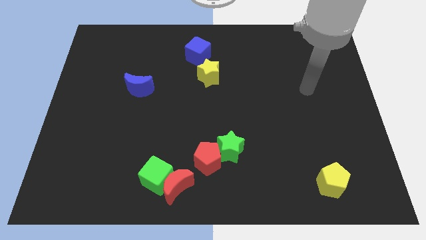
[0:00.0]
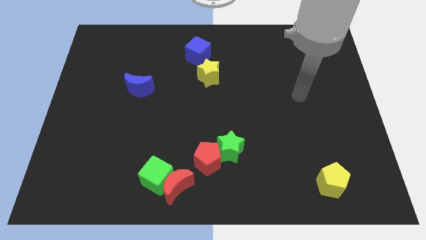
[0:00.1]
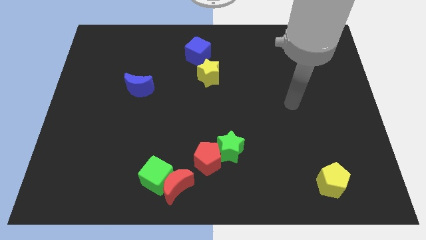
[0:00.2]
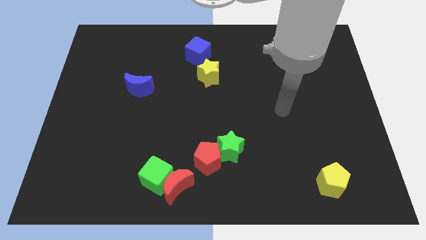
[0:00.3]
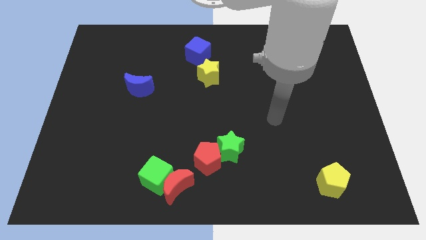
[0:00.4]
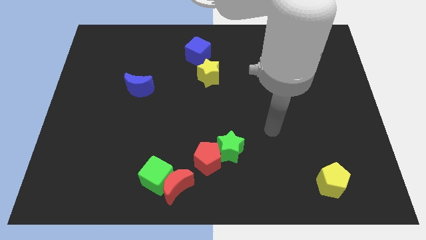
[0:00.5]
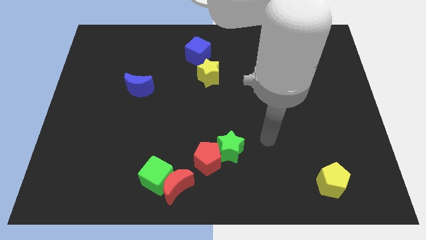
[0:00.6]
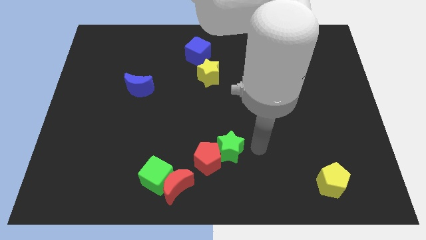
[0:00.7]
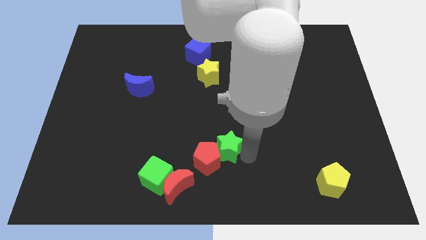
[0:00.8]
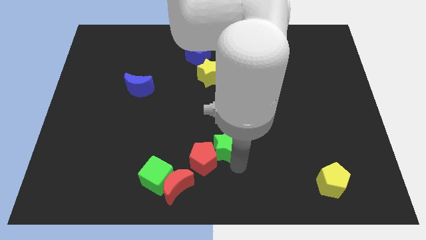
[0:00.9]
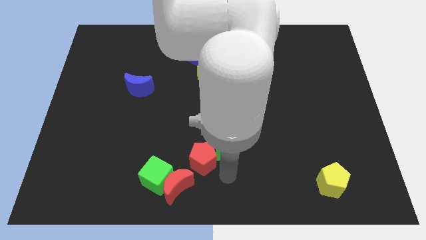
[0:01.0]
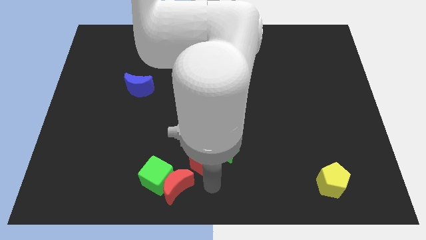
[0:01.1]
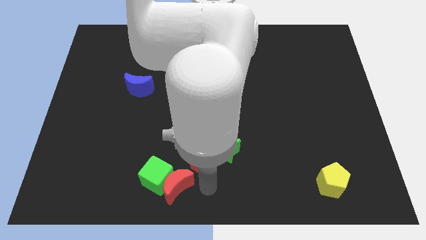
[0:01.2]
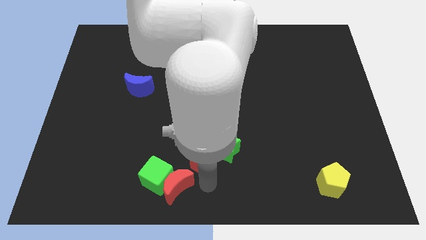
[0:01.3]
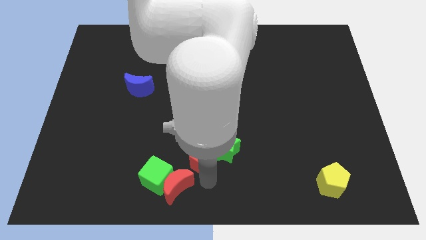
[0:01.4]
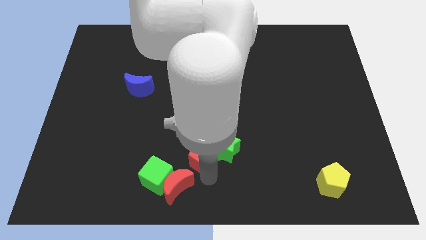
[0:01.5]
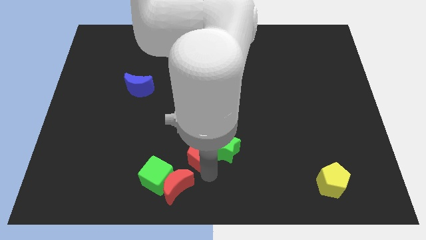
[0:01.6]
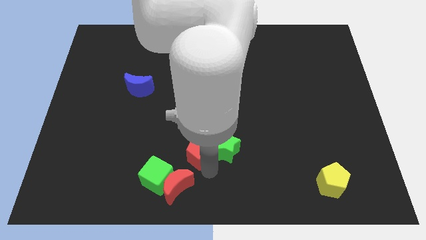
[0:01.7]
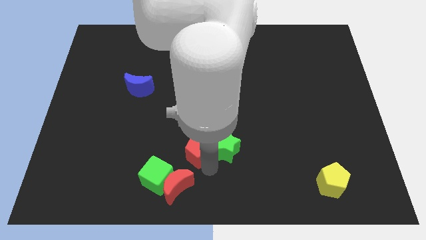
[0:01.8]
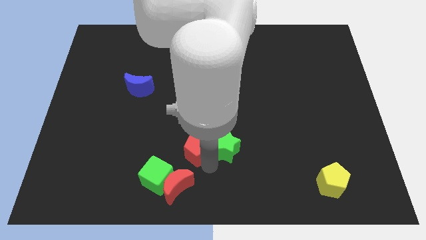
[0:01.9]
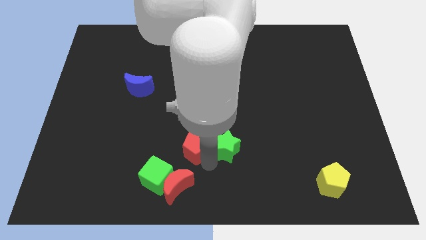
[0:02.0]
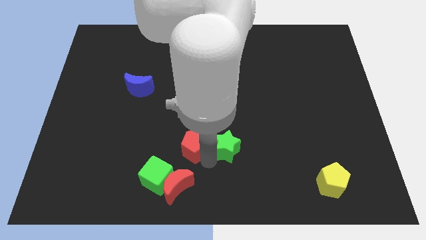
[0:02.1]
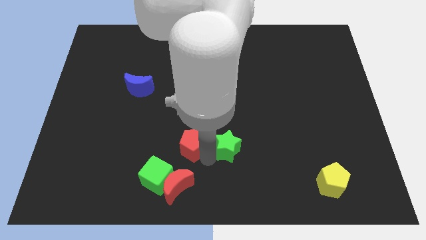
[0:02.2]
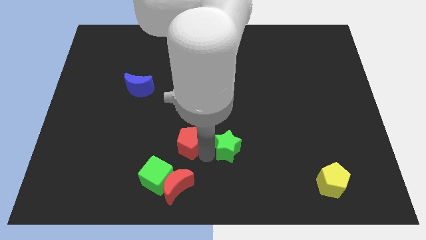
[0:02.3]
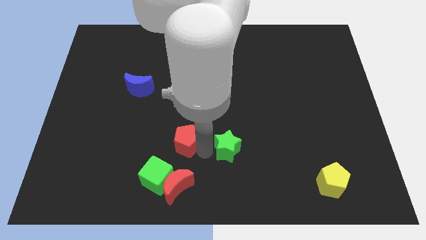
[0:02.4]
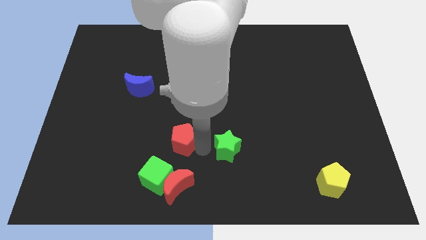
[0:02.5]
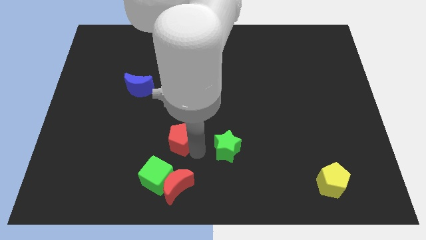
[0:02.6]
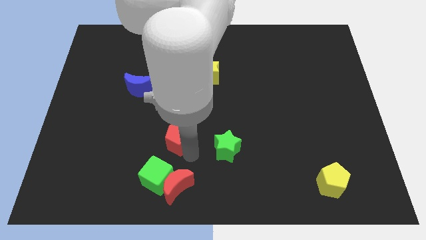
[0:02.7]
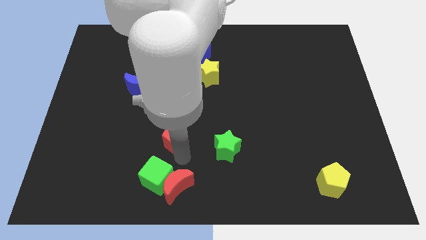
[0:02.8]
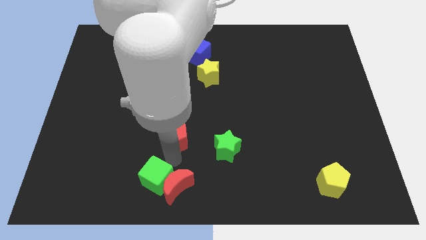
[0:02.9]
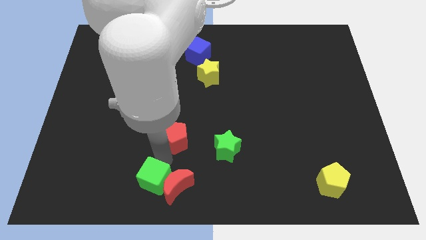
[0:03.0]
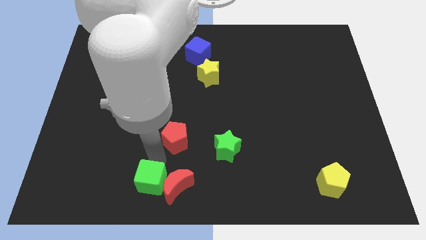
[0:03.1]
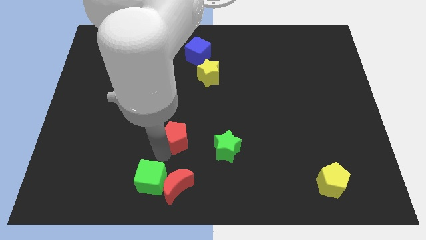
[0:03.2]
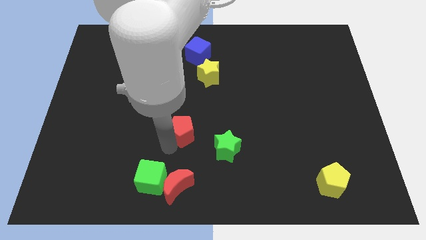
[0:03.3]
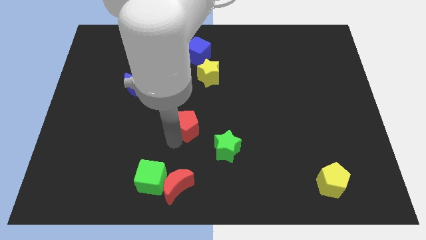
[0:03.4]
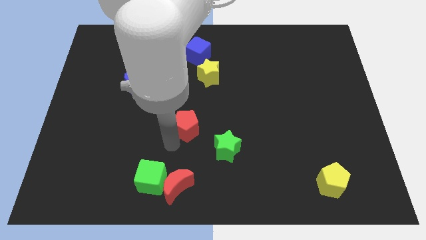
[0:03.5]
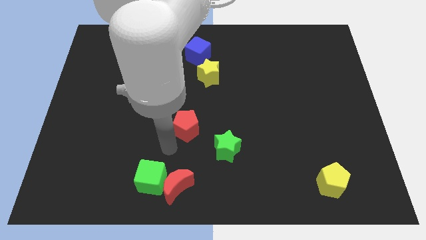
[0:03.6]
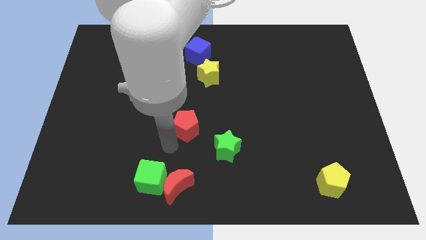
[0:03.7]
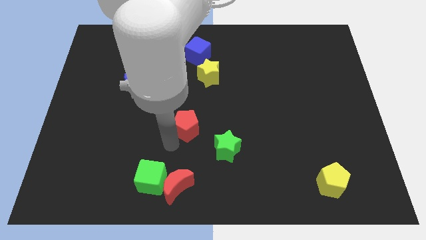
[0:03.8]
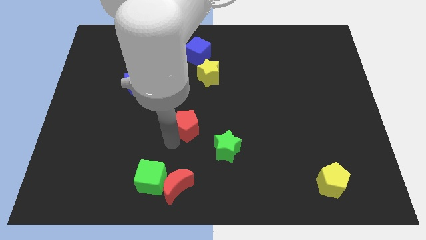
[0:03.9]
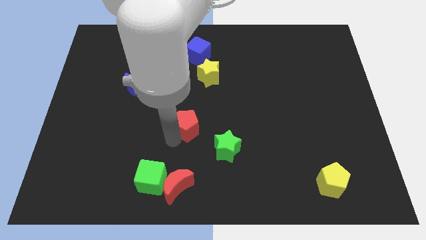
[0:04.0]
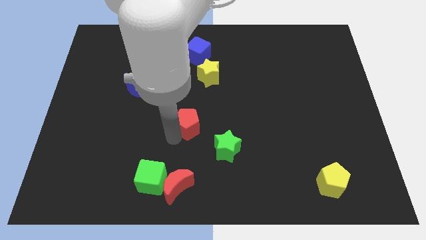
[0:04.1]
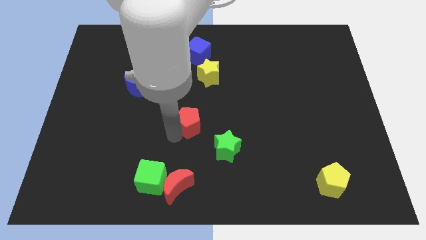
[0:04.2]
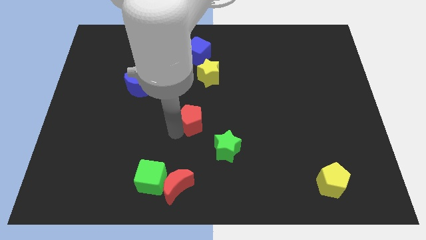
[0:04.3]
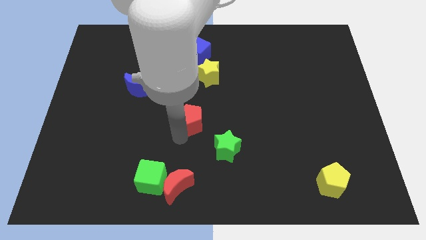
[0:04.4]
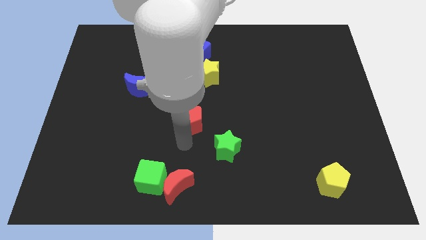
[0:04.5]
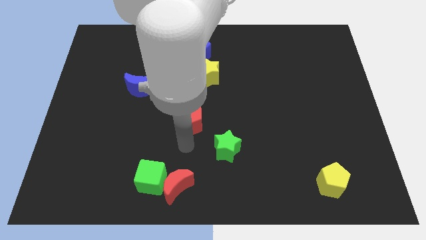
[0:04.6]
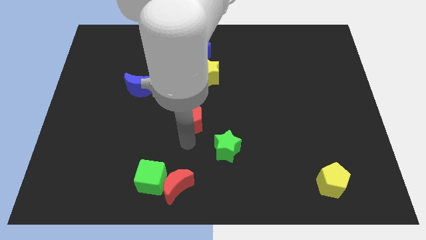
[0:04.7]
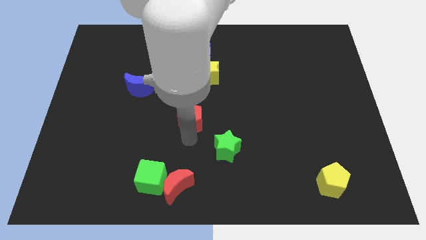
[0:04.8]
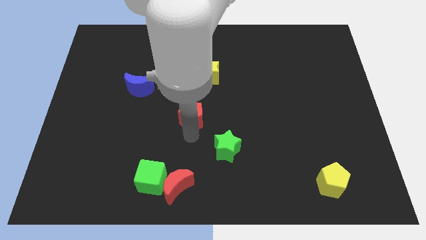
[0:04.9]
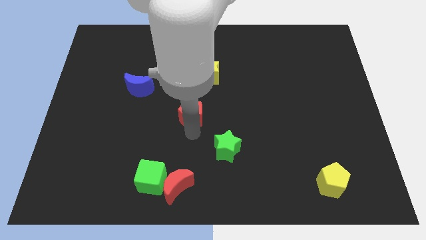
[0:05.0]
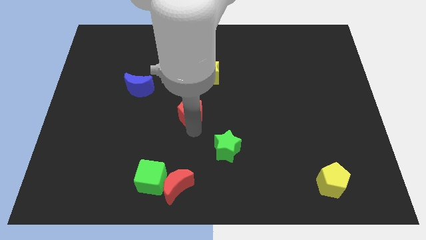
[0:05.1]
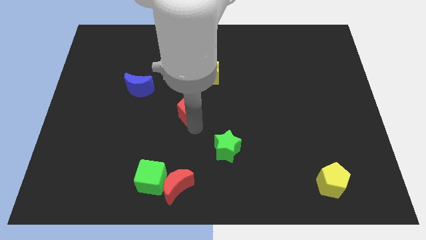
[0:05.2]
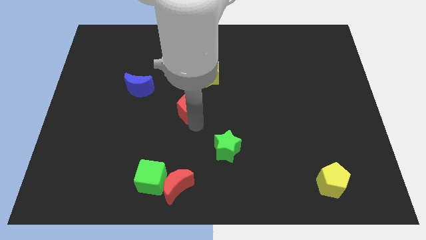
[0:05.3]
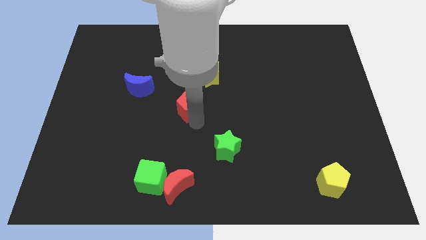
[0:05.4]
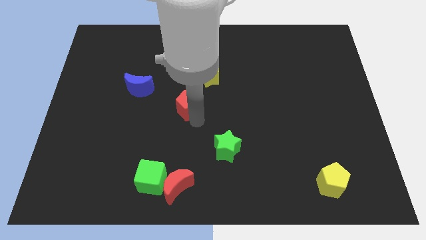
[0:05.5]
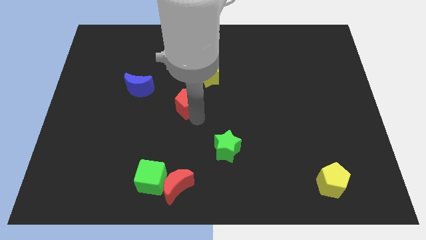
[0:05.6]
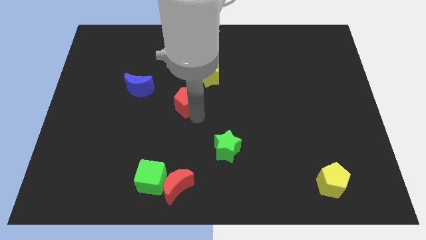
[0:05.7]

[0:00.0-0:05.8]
move the red pentagon to the right of the blue moon

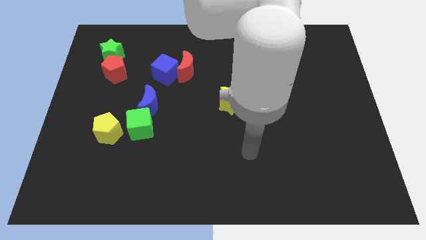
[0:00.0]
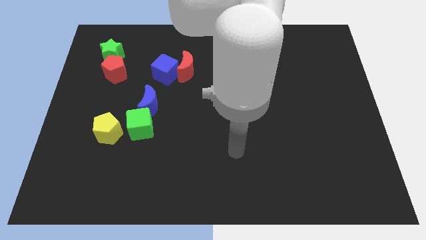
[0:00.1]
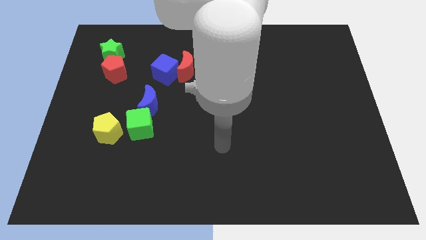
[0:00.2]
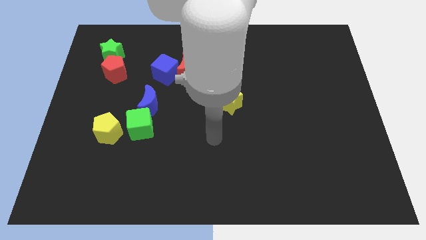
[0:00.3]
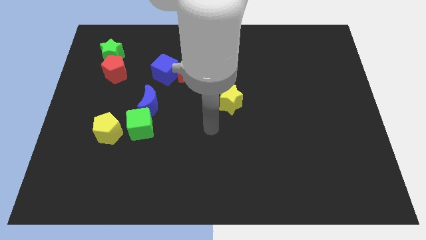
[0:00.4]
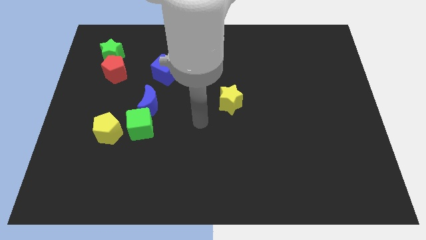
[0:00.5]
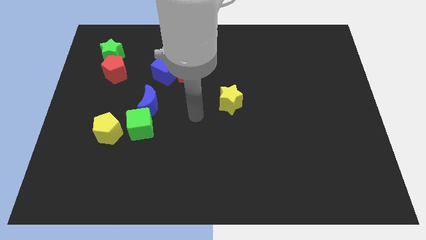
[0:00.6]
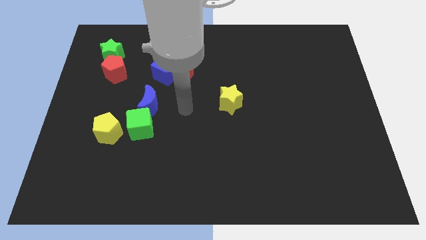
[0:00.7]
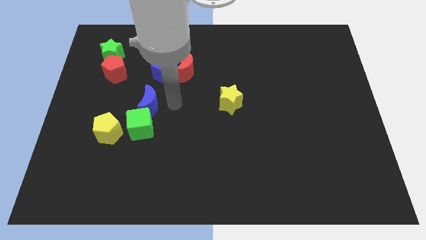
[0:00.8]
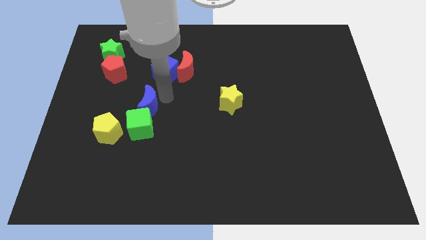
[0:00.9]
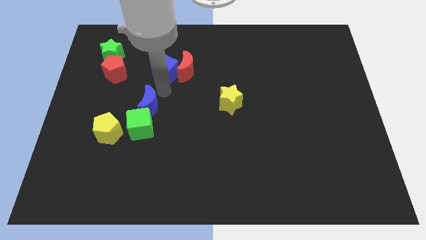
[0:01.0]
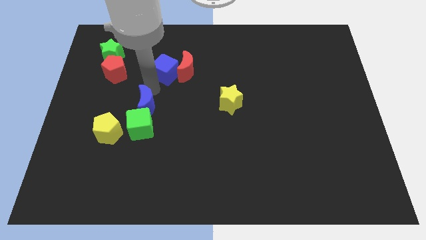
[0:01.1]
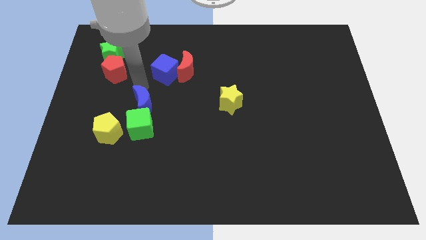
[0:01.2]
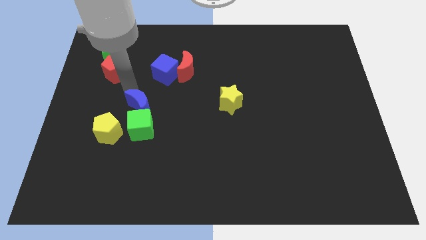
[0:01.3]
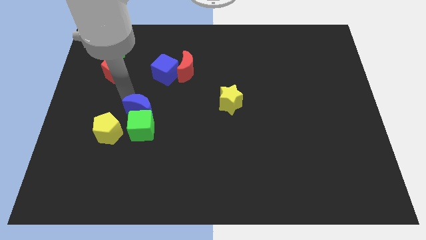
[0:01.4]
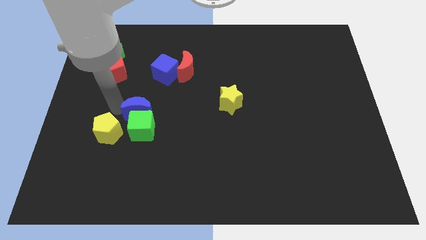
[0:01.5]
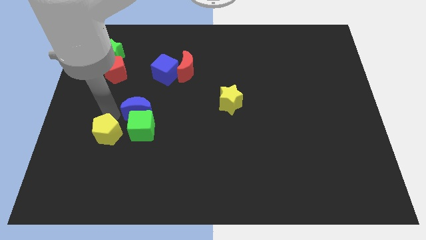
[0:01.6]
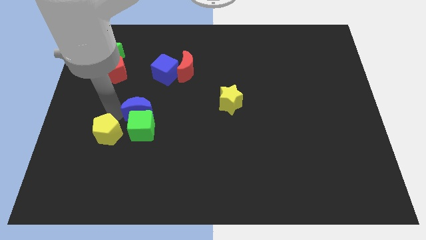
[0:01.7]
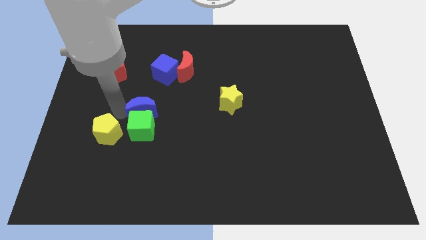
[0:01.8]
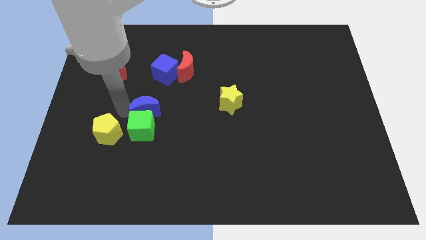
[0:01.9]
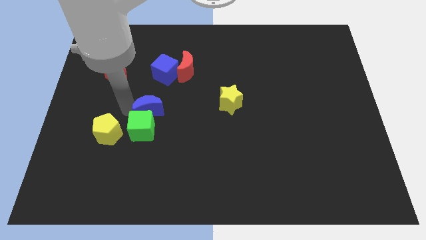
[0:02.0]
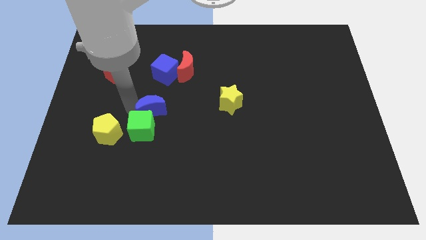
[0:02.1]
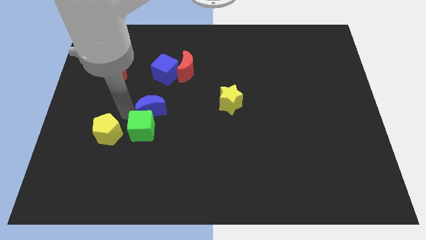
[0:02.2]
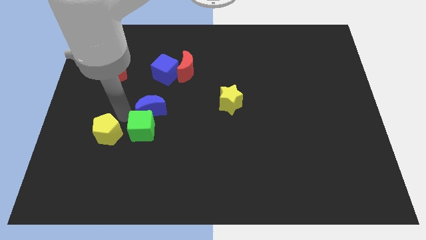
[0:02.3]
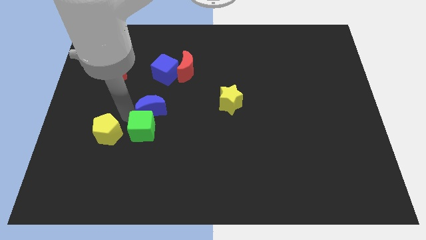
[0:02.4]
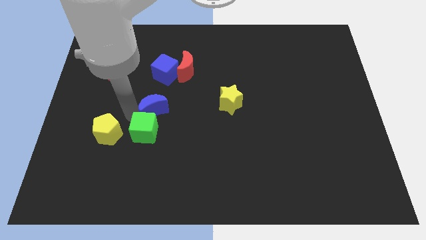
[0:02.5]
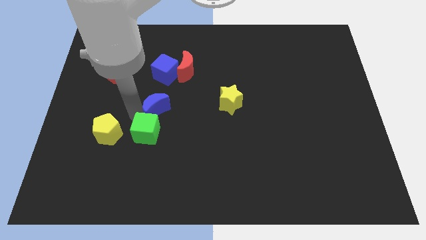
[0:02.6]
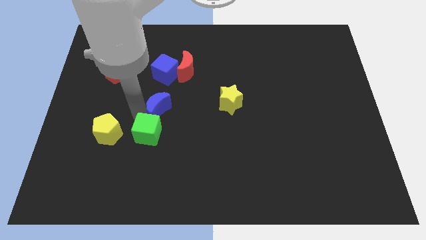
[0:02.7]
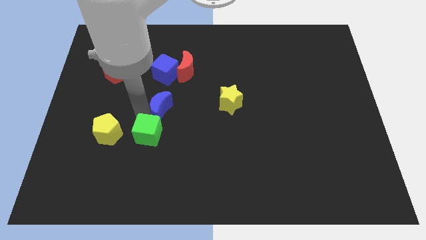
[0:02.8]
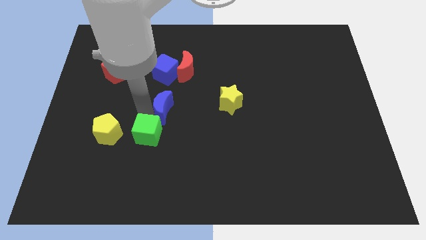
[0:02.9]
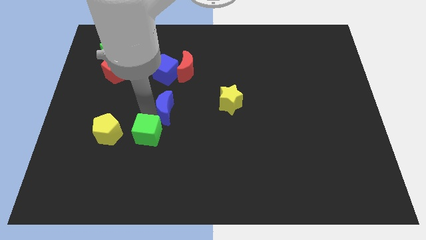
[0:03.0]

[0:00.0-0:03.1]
move the blue moon to the bottom of the red moon
